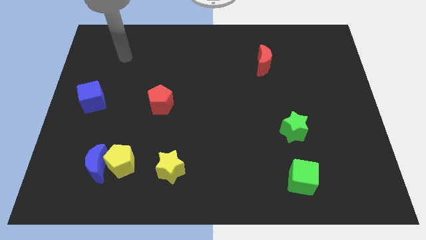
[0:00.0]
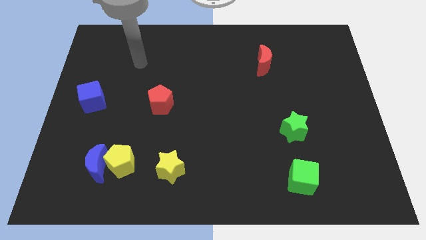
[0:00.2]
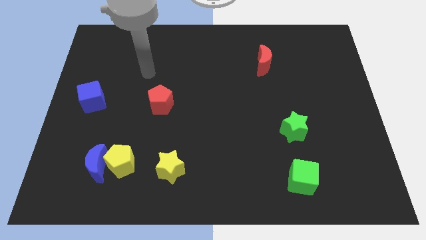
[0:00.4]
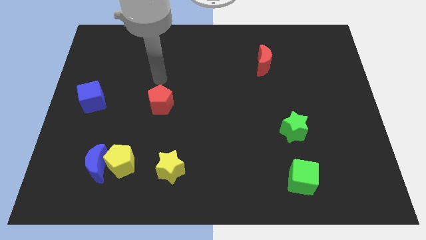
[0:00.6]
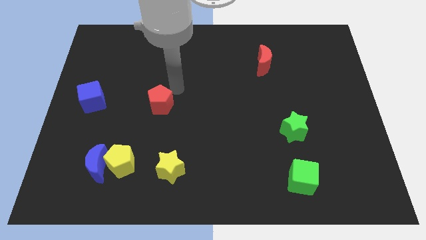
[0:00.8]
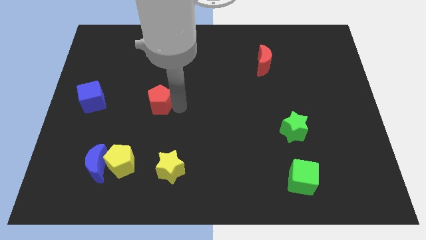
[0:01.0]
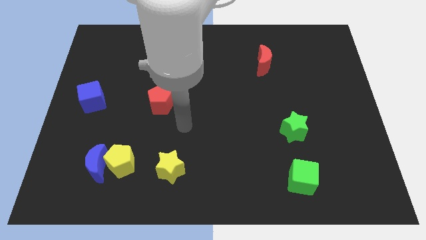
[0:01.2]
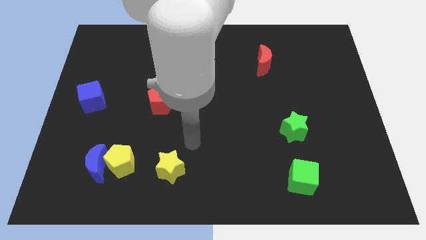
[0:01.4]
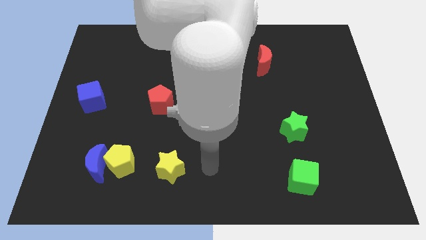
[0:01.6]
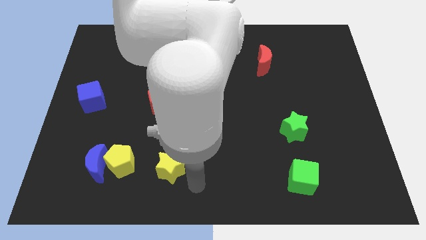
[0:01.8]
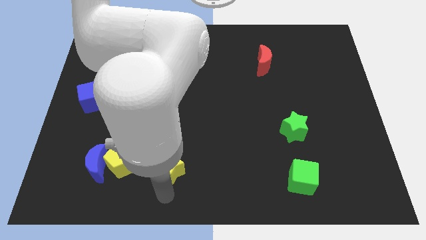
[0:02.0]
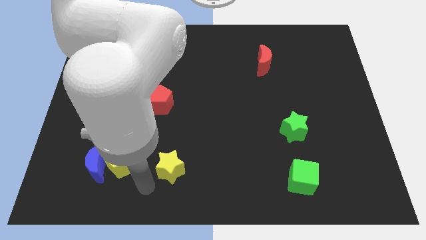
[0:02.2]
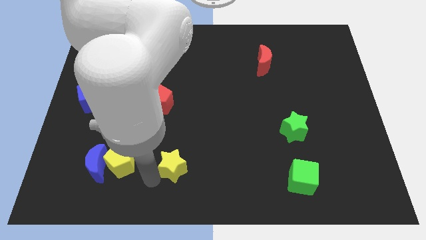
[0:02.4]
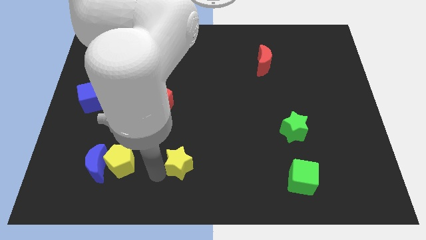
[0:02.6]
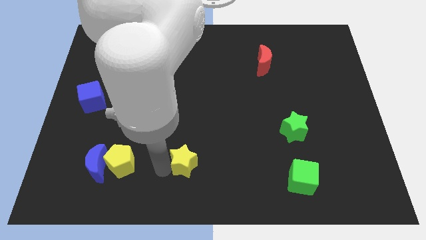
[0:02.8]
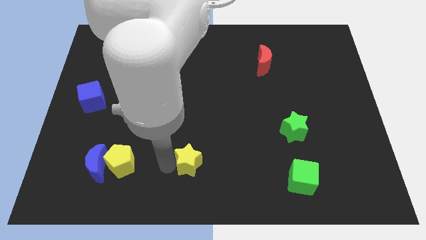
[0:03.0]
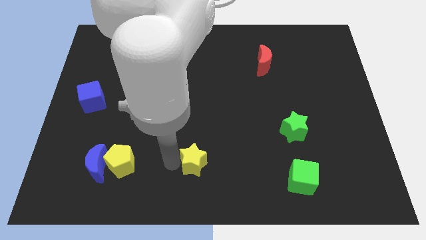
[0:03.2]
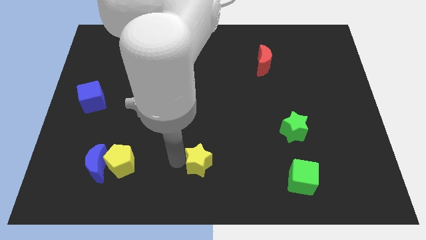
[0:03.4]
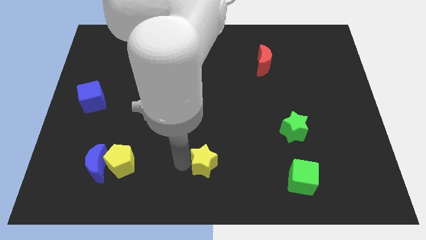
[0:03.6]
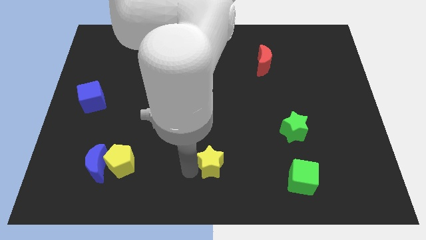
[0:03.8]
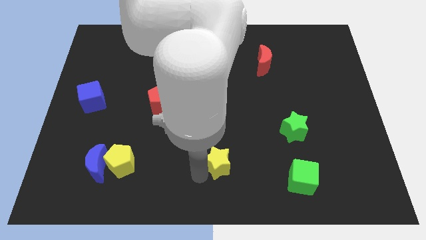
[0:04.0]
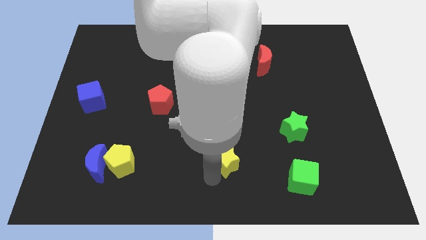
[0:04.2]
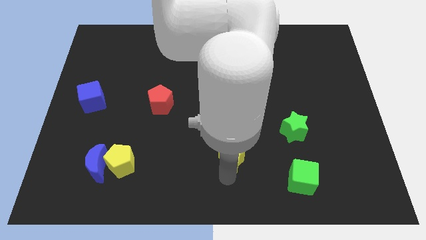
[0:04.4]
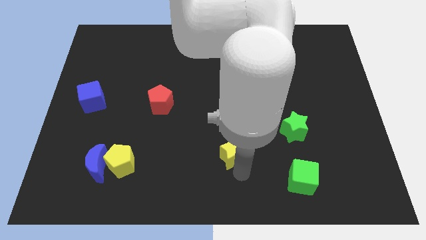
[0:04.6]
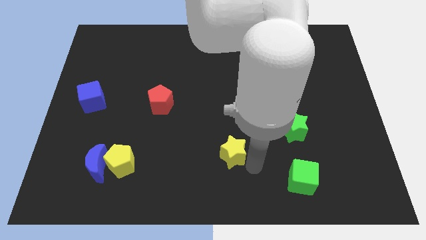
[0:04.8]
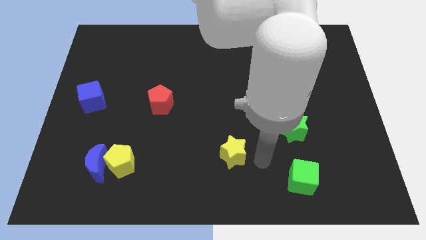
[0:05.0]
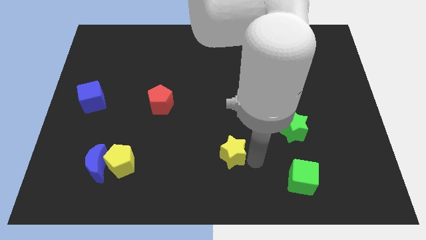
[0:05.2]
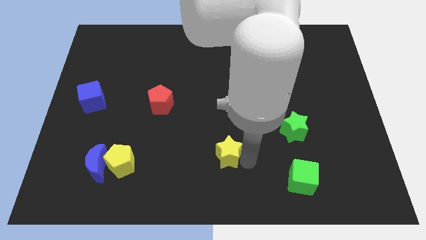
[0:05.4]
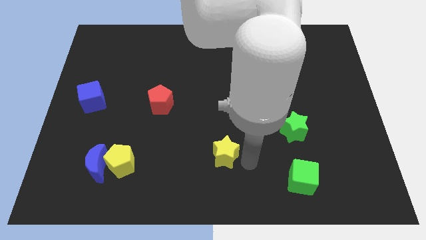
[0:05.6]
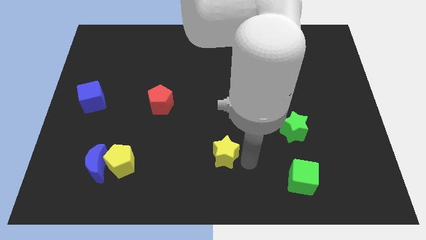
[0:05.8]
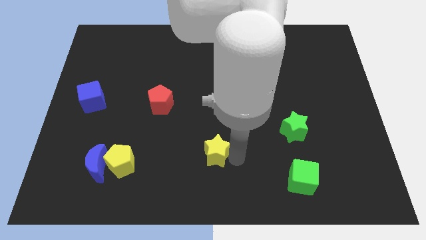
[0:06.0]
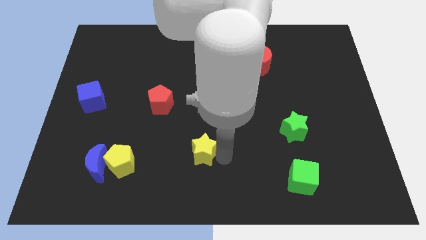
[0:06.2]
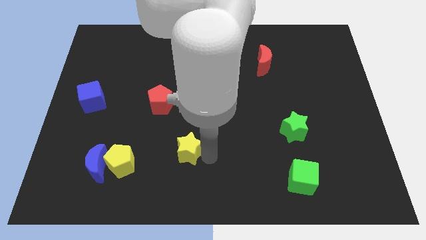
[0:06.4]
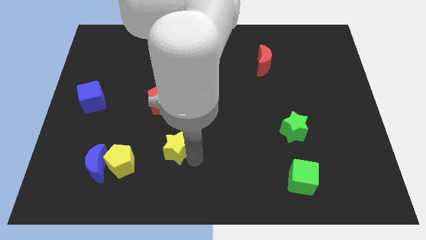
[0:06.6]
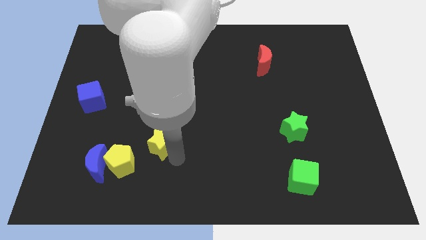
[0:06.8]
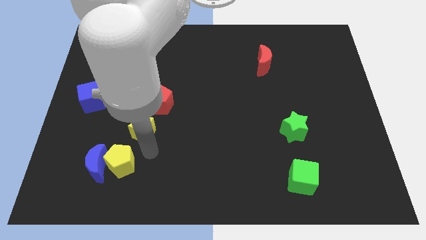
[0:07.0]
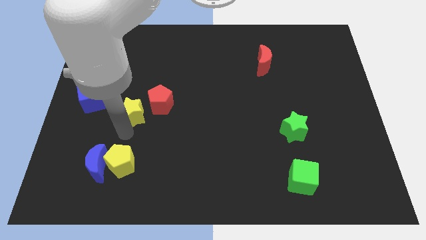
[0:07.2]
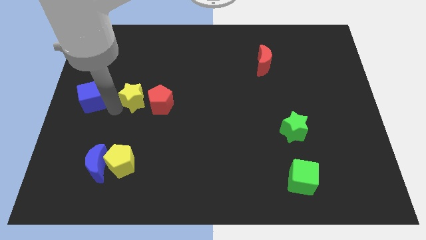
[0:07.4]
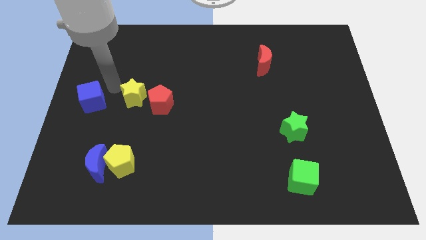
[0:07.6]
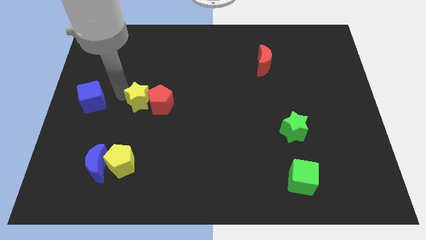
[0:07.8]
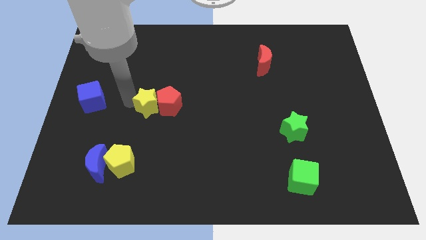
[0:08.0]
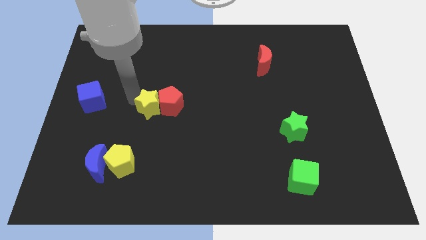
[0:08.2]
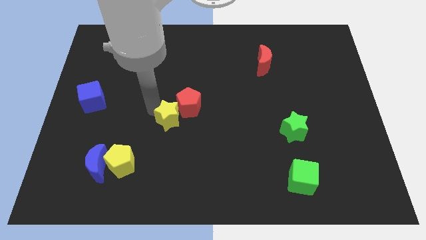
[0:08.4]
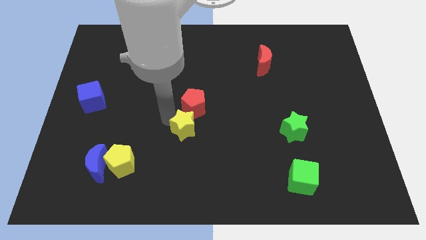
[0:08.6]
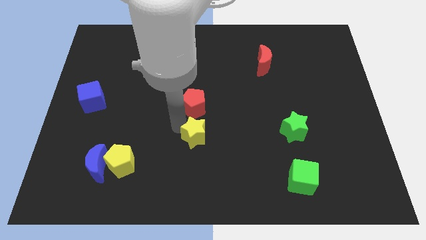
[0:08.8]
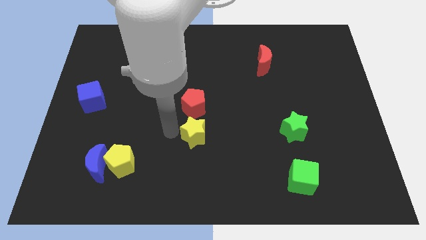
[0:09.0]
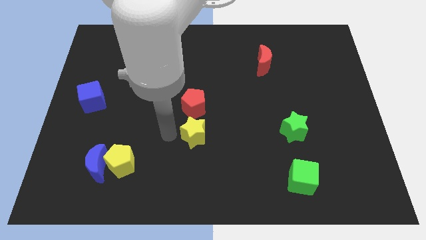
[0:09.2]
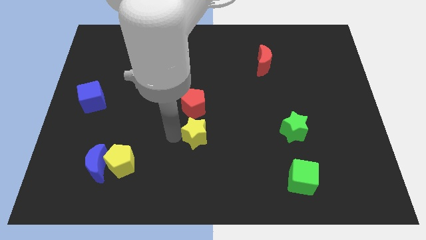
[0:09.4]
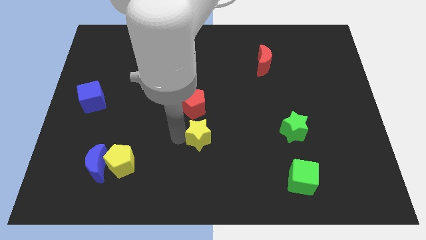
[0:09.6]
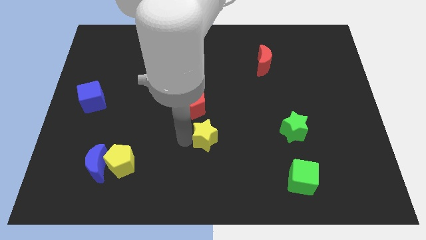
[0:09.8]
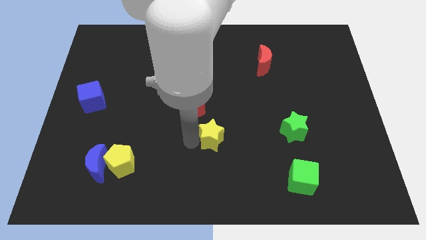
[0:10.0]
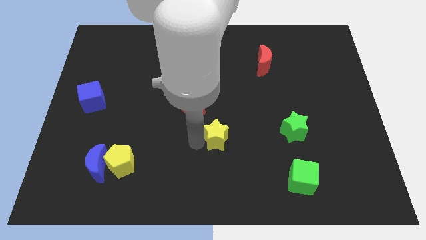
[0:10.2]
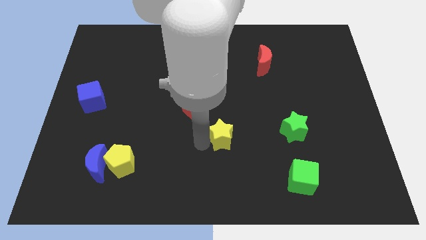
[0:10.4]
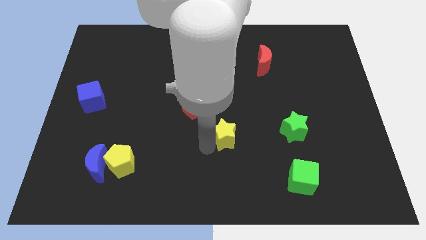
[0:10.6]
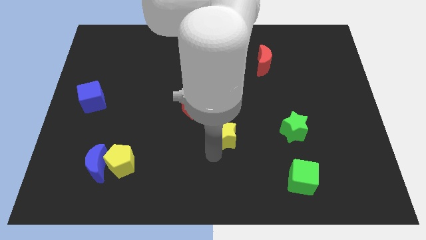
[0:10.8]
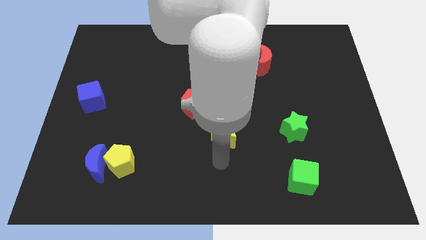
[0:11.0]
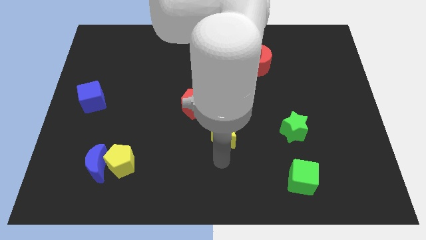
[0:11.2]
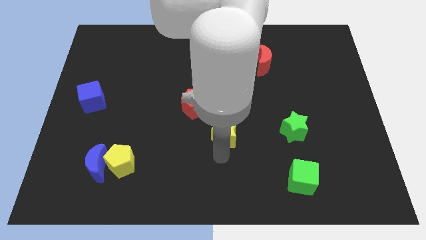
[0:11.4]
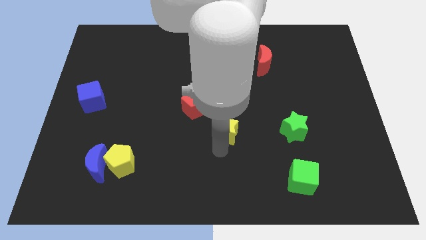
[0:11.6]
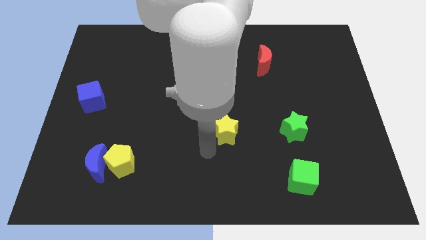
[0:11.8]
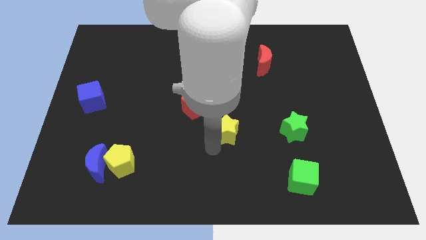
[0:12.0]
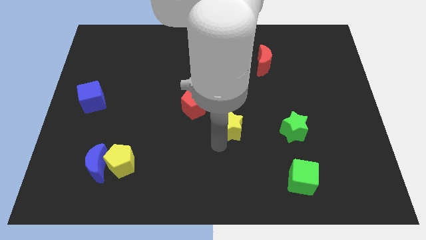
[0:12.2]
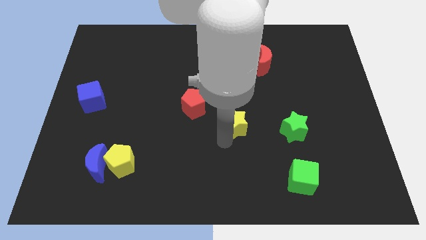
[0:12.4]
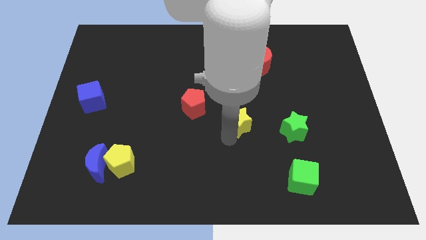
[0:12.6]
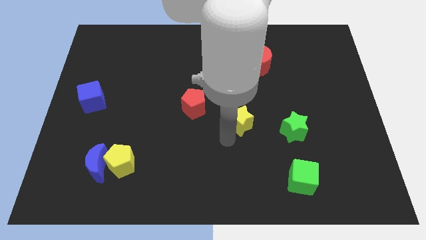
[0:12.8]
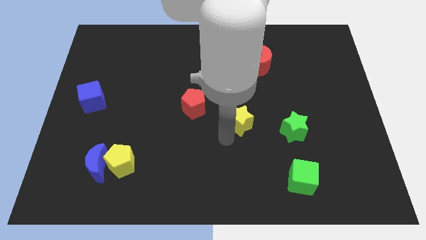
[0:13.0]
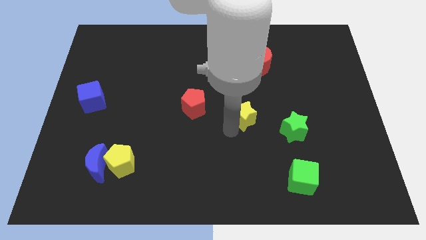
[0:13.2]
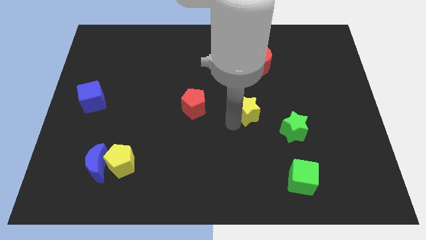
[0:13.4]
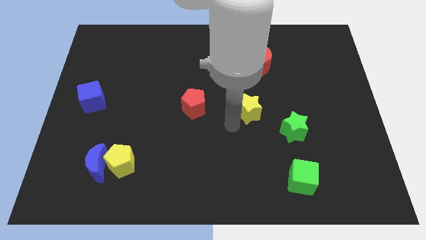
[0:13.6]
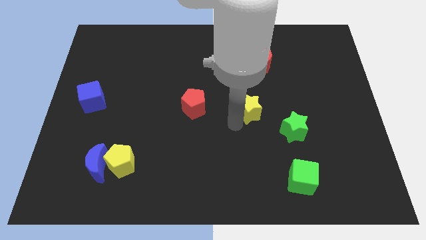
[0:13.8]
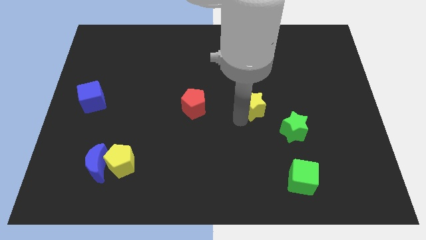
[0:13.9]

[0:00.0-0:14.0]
push the yellow star to the bottom side of the red moon
